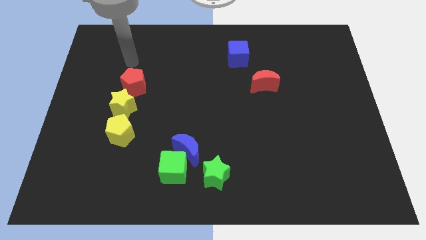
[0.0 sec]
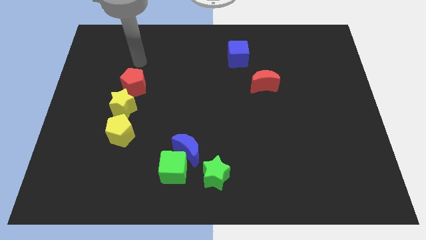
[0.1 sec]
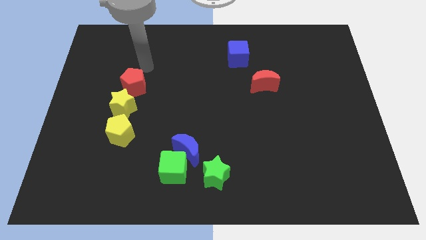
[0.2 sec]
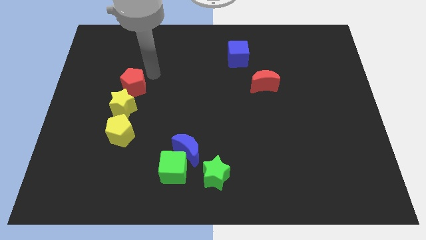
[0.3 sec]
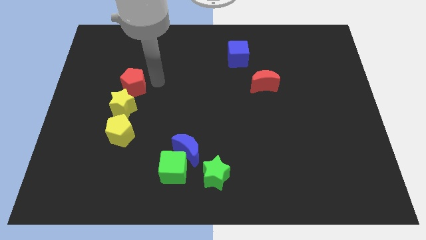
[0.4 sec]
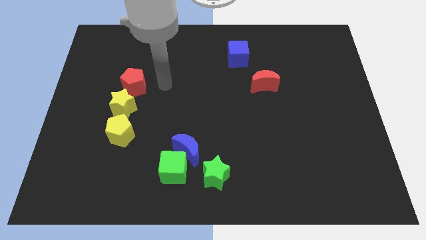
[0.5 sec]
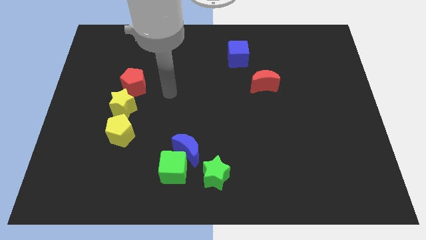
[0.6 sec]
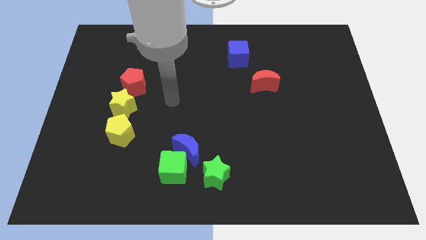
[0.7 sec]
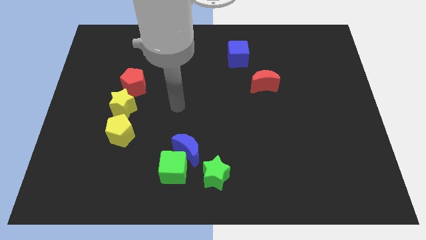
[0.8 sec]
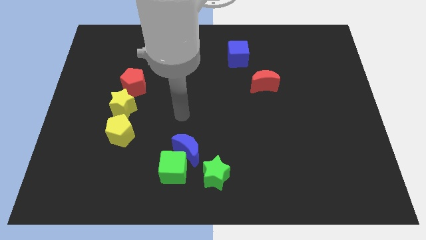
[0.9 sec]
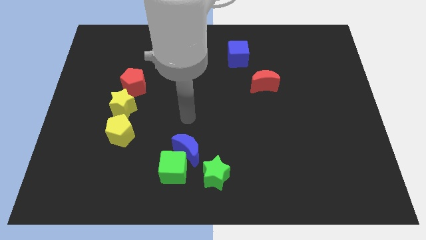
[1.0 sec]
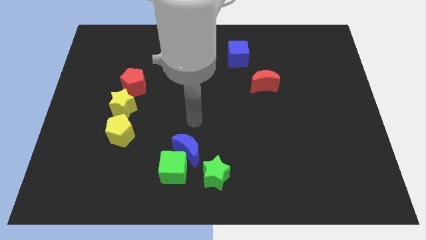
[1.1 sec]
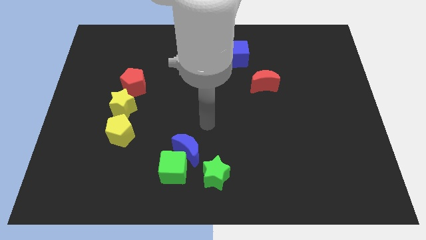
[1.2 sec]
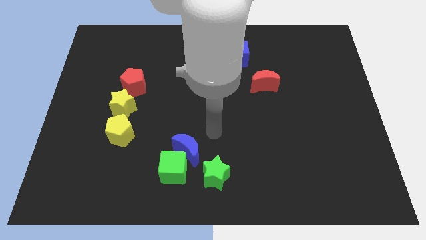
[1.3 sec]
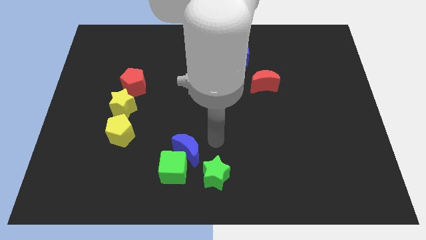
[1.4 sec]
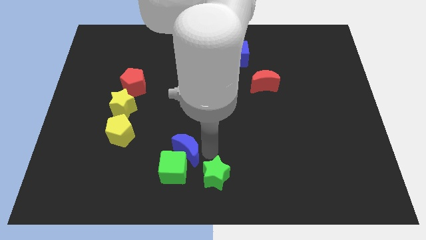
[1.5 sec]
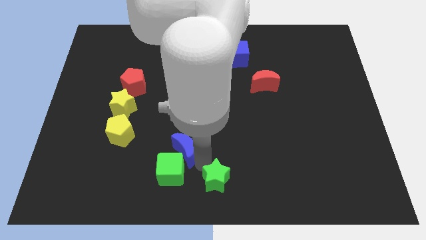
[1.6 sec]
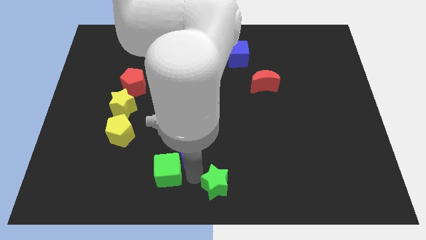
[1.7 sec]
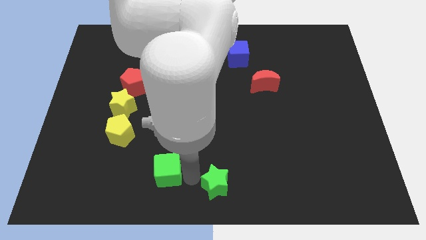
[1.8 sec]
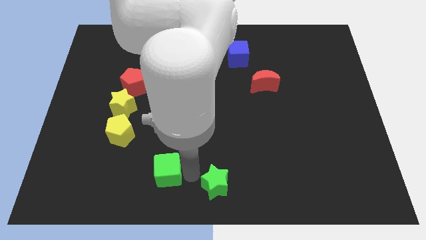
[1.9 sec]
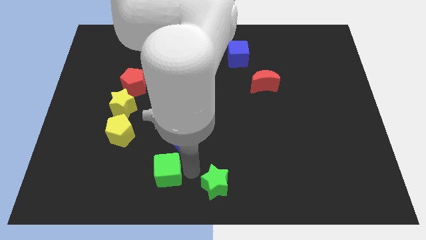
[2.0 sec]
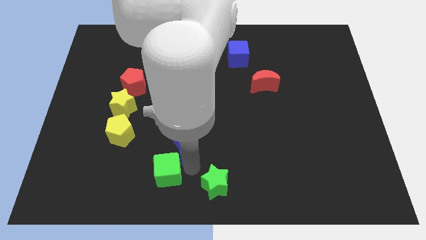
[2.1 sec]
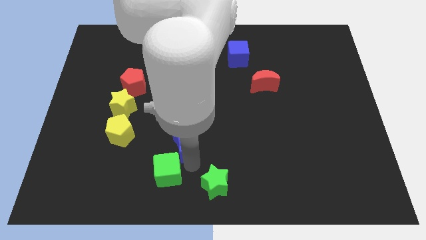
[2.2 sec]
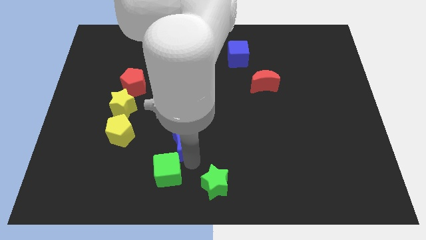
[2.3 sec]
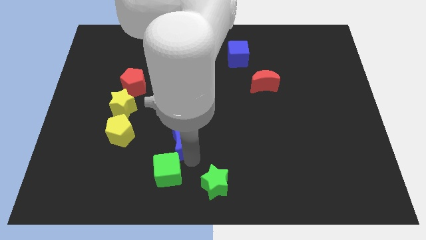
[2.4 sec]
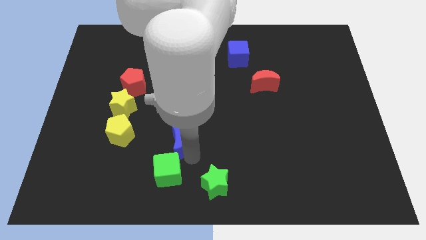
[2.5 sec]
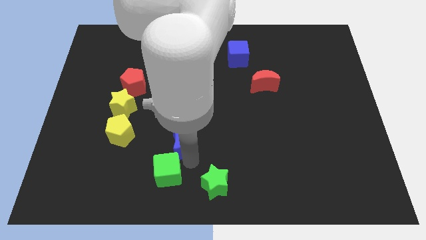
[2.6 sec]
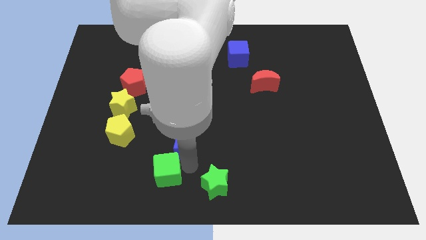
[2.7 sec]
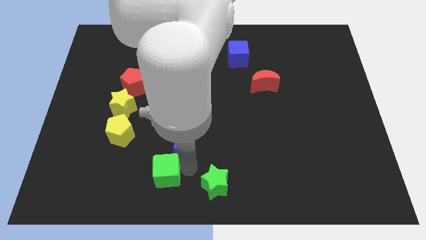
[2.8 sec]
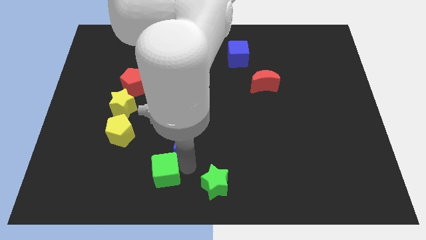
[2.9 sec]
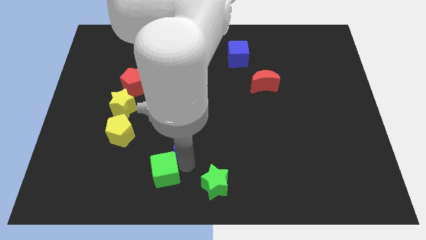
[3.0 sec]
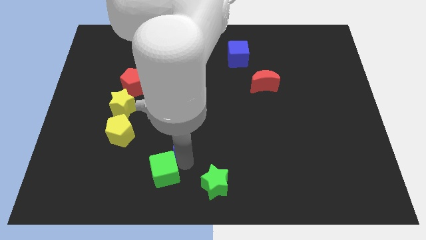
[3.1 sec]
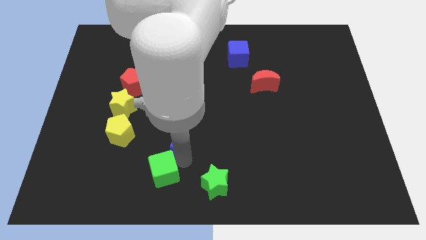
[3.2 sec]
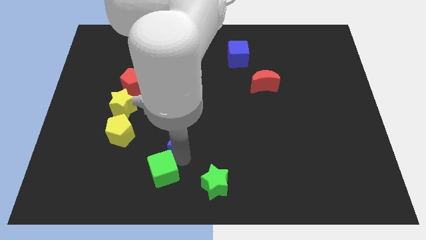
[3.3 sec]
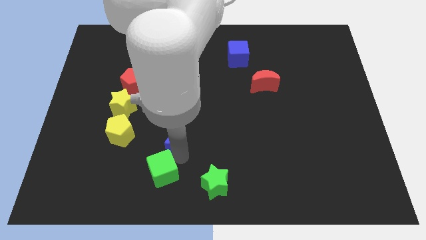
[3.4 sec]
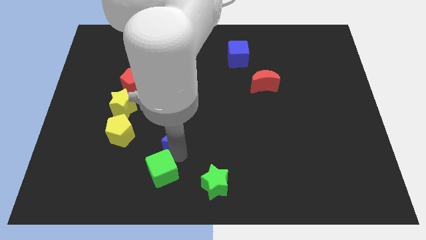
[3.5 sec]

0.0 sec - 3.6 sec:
move the blue moon away from the green cube and green star

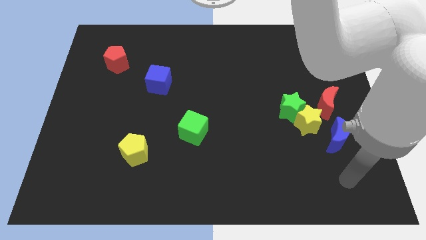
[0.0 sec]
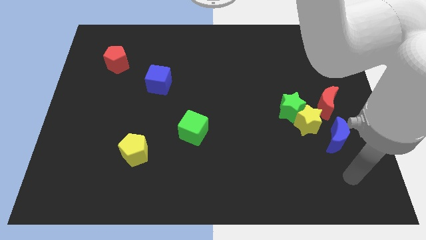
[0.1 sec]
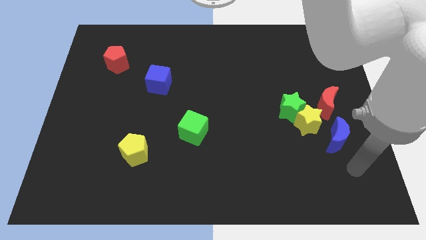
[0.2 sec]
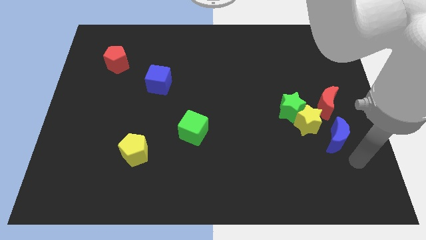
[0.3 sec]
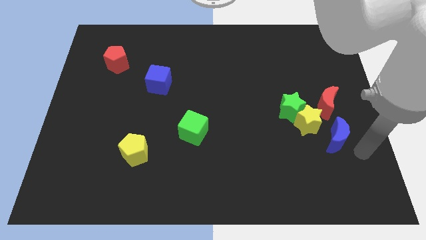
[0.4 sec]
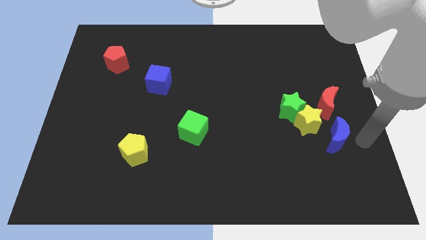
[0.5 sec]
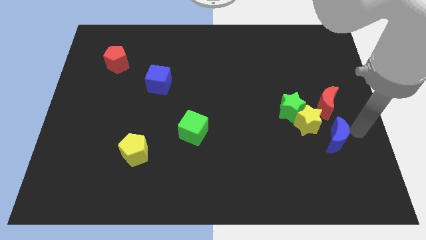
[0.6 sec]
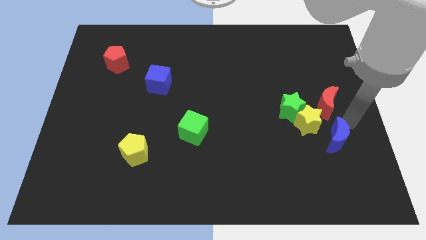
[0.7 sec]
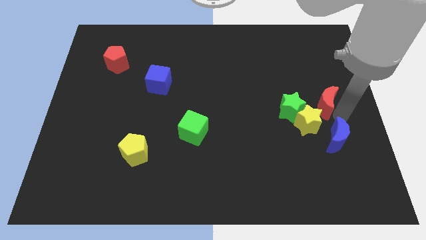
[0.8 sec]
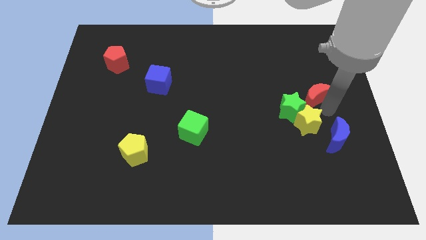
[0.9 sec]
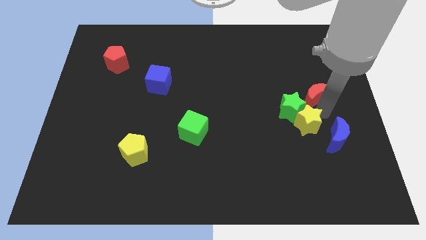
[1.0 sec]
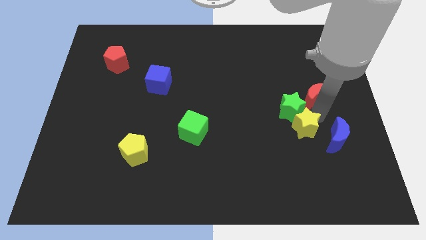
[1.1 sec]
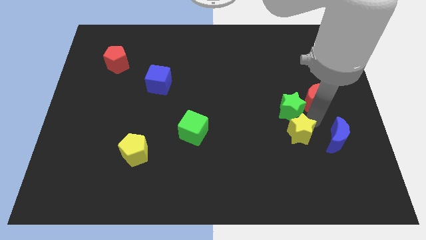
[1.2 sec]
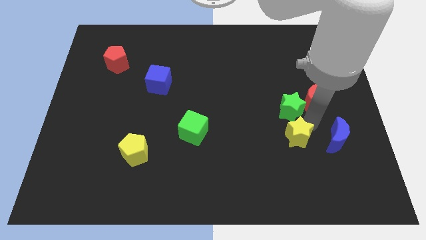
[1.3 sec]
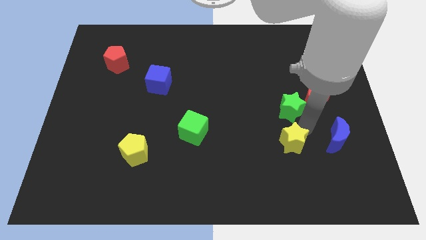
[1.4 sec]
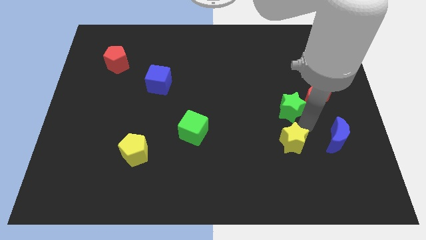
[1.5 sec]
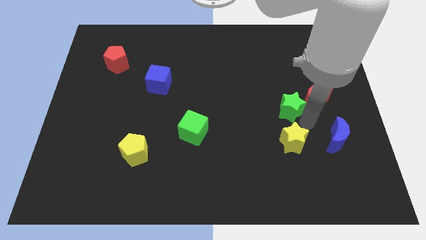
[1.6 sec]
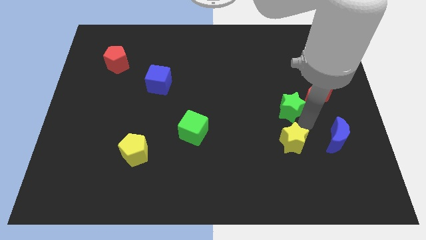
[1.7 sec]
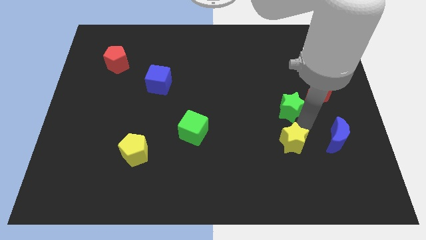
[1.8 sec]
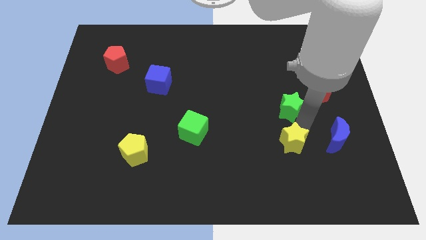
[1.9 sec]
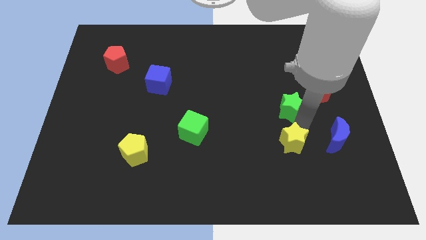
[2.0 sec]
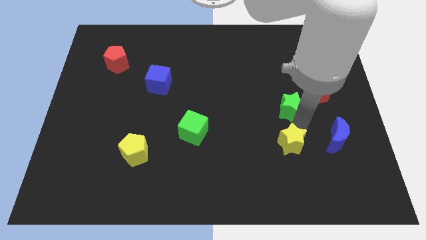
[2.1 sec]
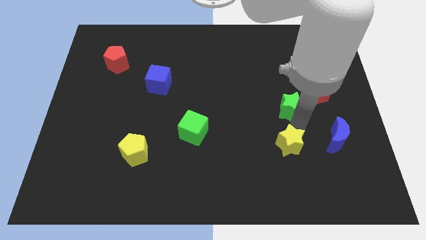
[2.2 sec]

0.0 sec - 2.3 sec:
separate the yellow star from the group of blocks

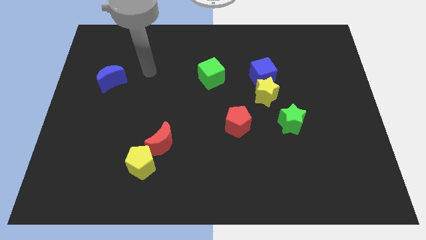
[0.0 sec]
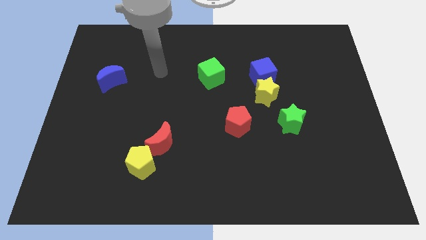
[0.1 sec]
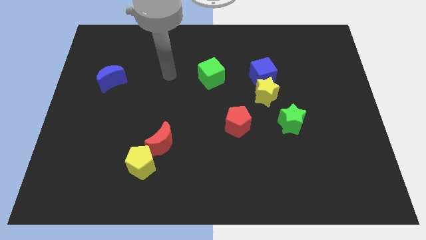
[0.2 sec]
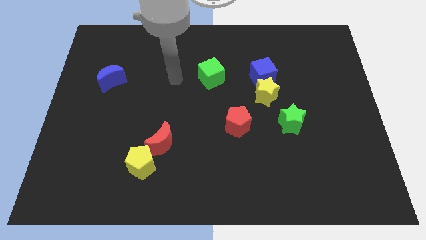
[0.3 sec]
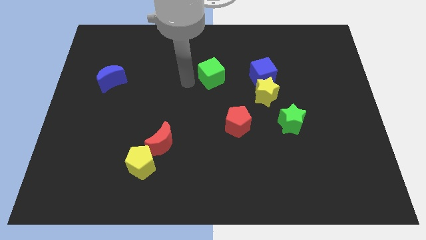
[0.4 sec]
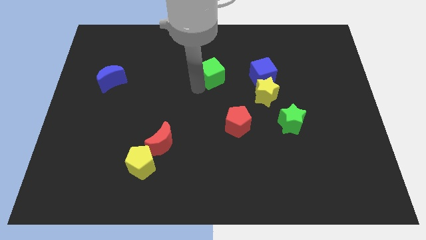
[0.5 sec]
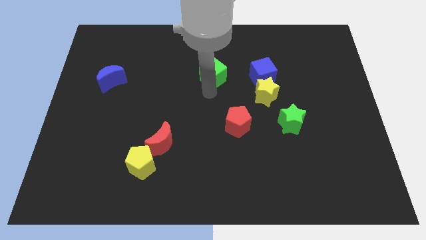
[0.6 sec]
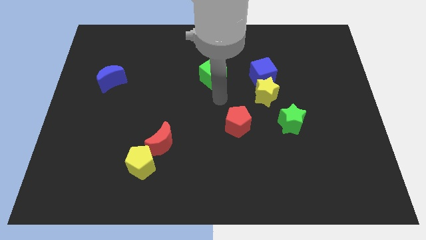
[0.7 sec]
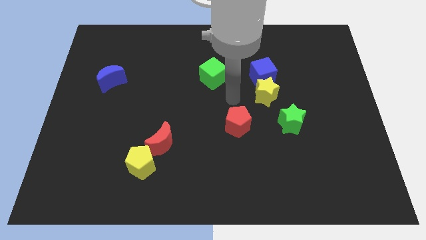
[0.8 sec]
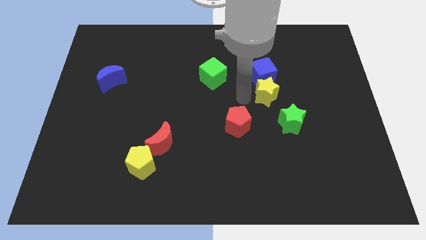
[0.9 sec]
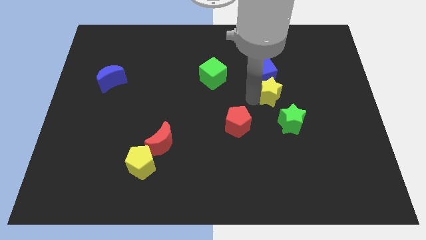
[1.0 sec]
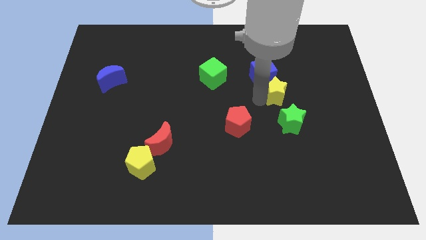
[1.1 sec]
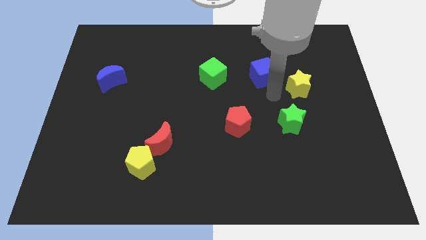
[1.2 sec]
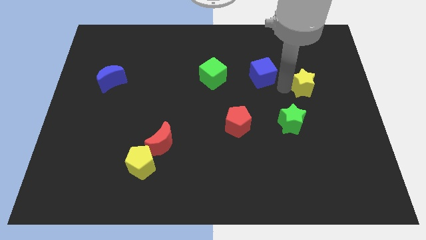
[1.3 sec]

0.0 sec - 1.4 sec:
separate the blue cube from the yellow star

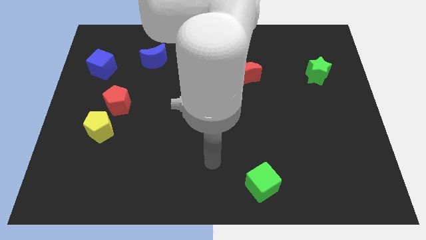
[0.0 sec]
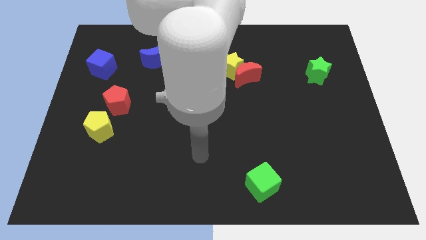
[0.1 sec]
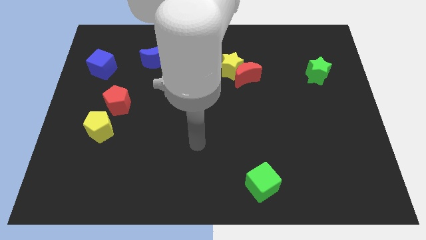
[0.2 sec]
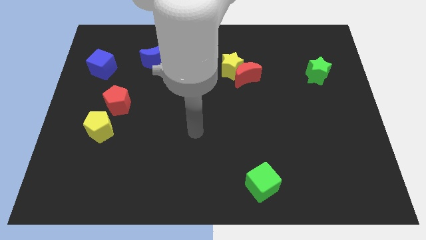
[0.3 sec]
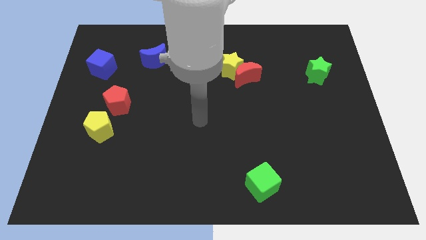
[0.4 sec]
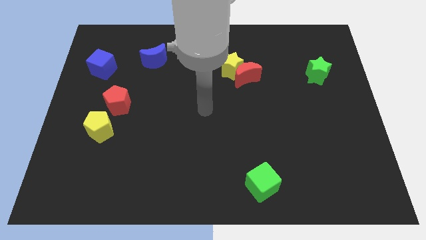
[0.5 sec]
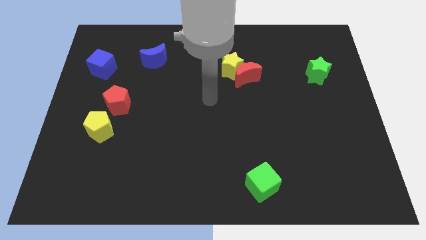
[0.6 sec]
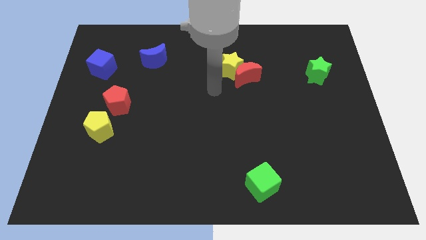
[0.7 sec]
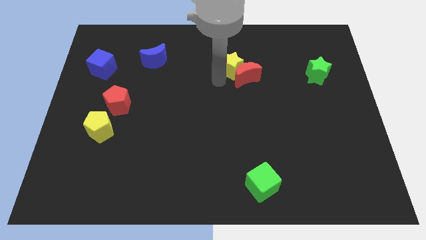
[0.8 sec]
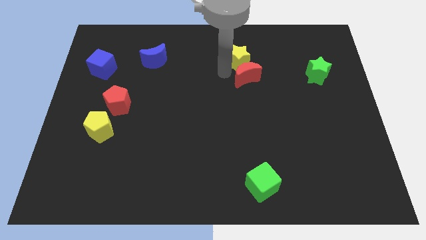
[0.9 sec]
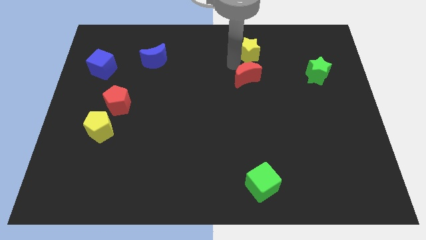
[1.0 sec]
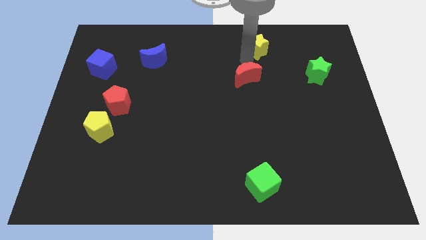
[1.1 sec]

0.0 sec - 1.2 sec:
pull the red moon apart from the yellow star

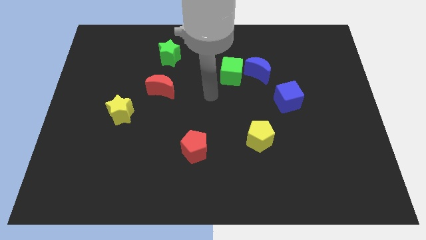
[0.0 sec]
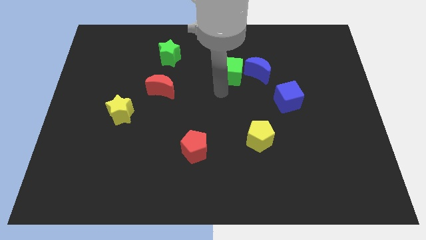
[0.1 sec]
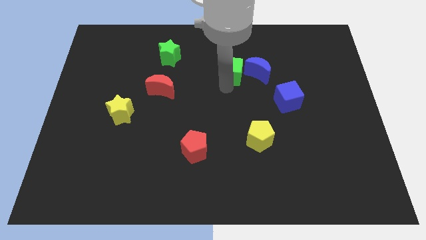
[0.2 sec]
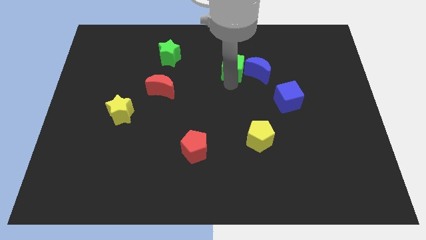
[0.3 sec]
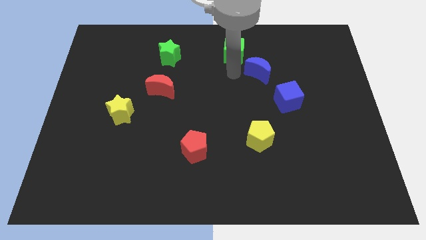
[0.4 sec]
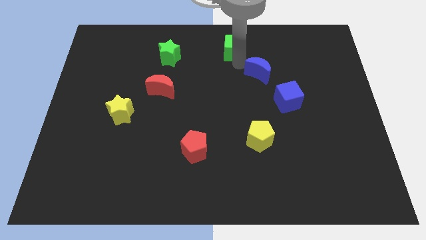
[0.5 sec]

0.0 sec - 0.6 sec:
separate the blue moon from the green cube

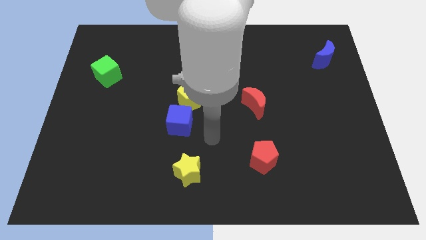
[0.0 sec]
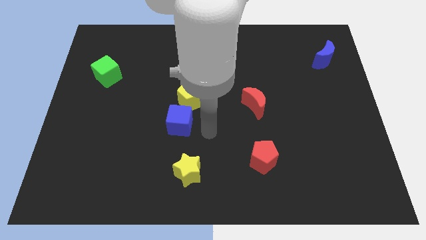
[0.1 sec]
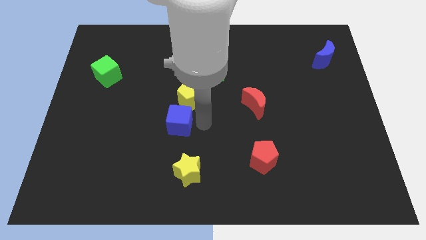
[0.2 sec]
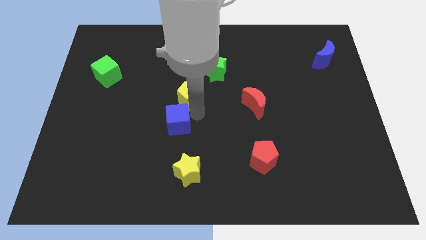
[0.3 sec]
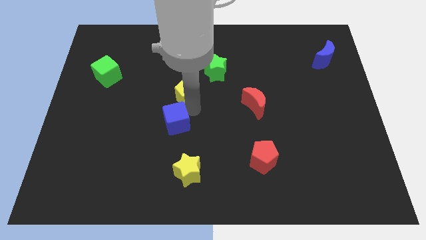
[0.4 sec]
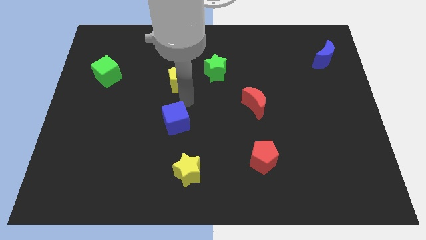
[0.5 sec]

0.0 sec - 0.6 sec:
pull the blue cube apart from the yellow pentagon
